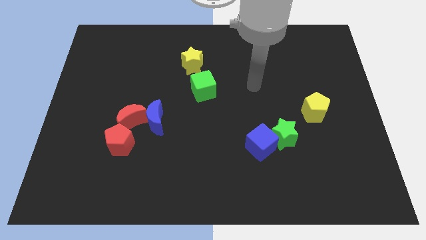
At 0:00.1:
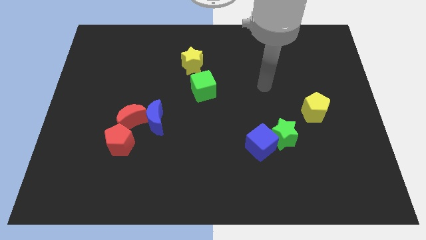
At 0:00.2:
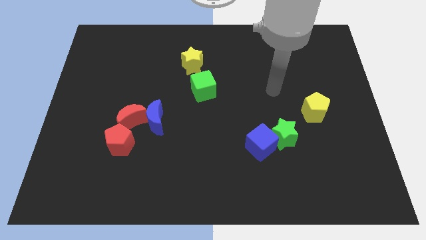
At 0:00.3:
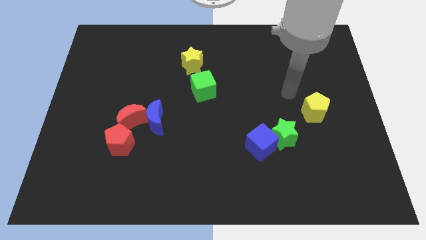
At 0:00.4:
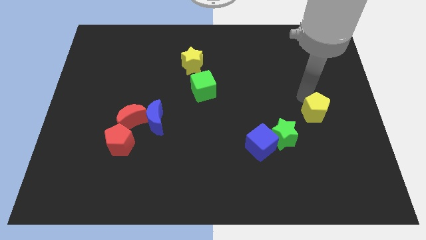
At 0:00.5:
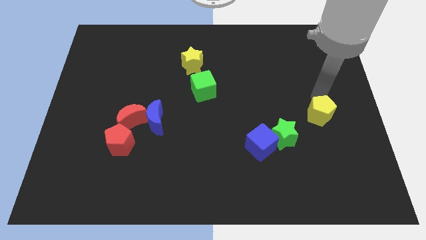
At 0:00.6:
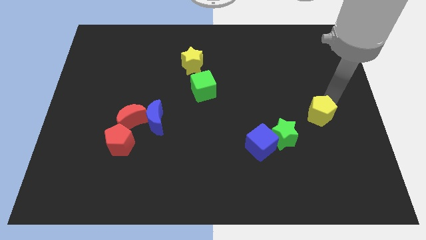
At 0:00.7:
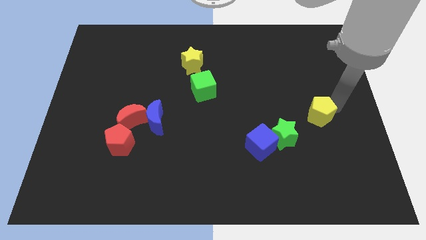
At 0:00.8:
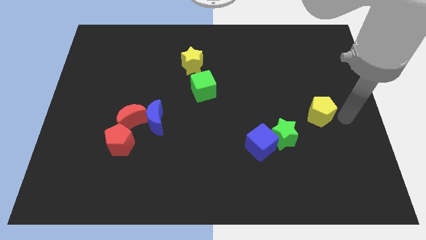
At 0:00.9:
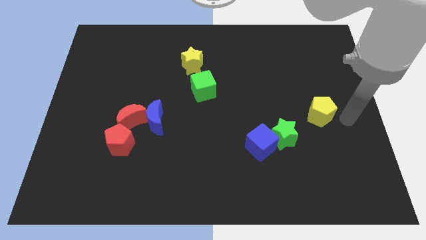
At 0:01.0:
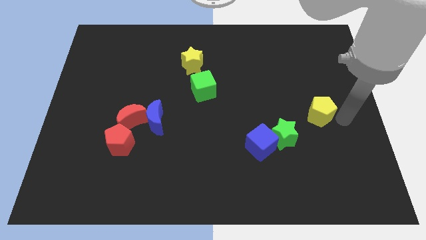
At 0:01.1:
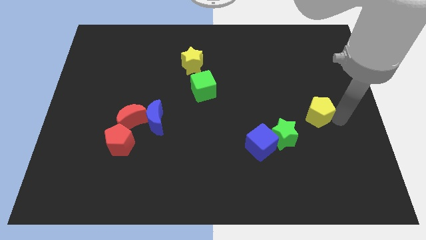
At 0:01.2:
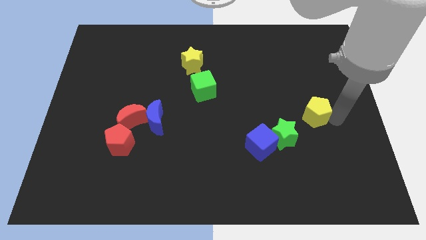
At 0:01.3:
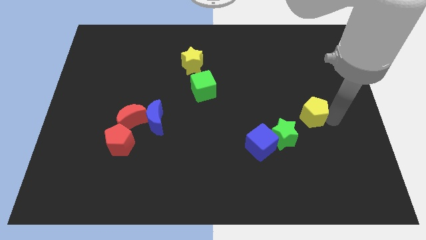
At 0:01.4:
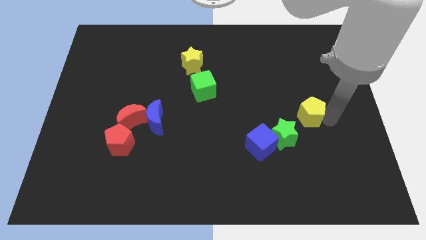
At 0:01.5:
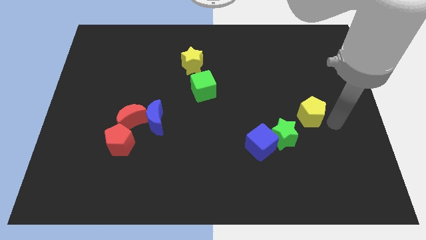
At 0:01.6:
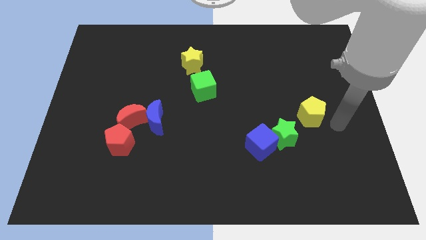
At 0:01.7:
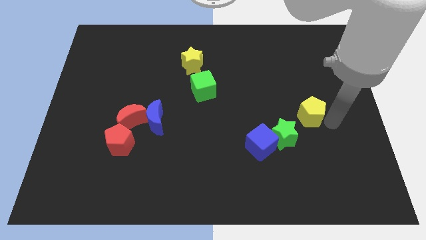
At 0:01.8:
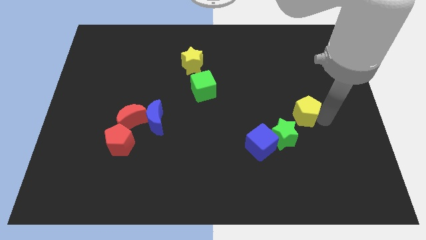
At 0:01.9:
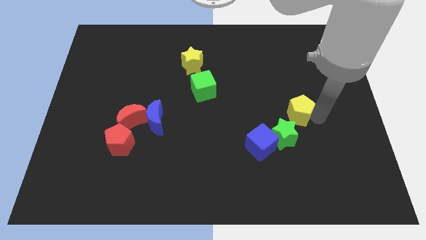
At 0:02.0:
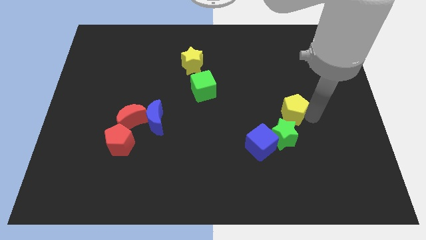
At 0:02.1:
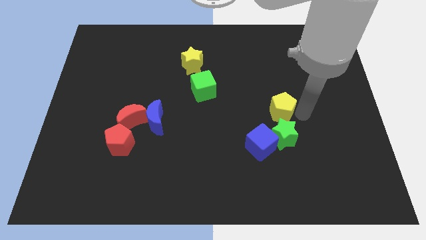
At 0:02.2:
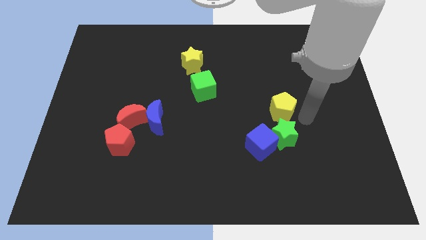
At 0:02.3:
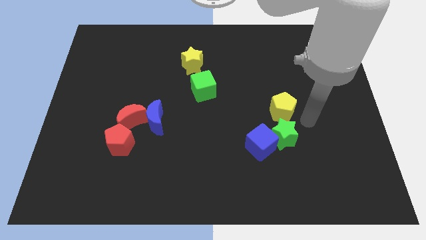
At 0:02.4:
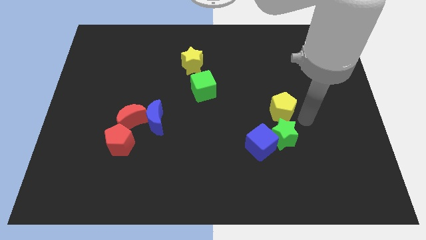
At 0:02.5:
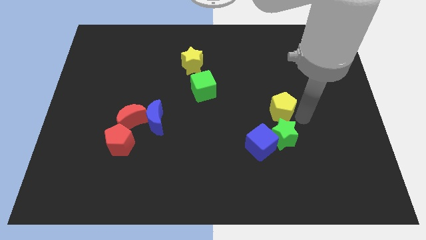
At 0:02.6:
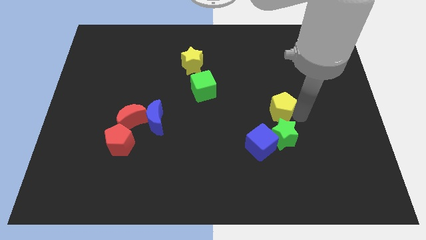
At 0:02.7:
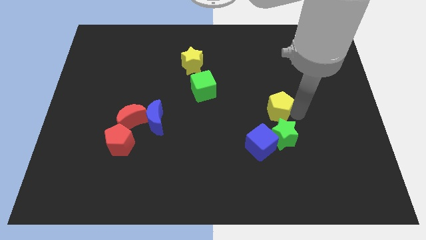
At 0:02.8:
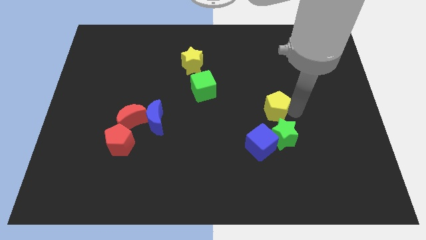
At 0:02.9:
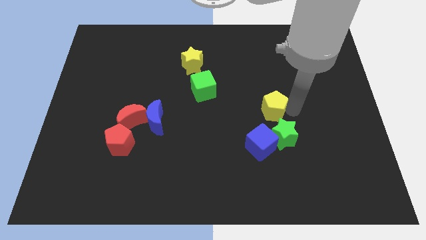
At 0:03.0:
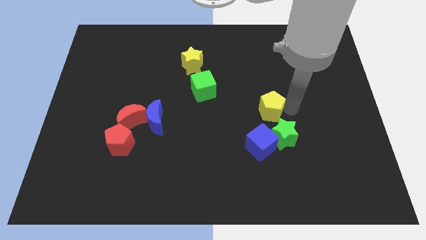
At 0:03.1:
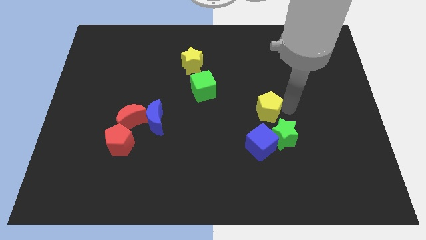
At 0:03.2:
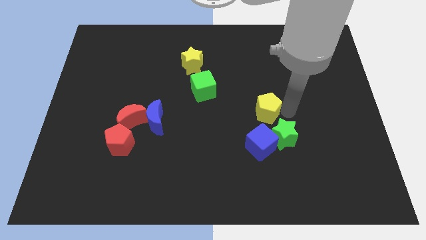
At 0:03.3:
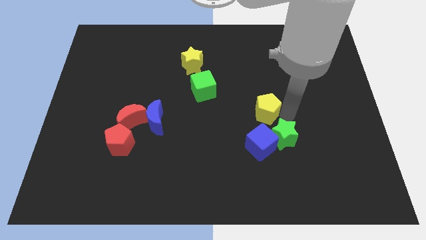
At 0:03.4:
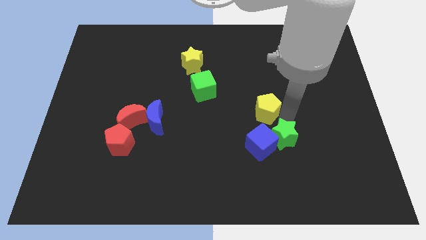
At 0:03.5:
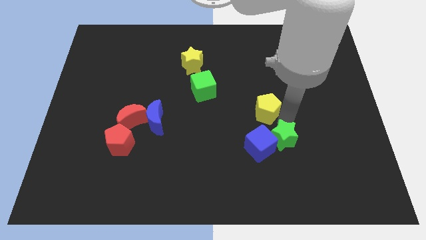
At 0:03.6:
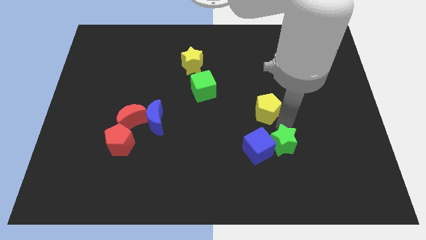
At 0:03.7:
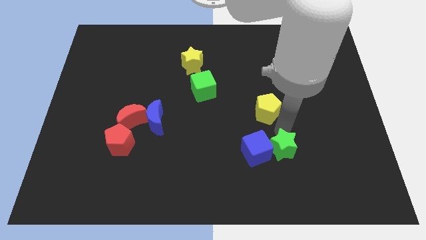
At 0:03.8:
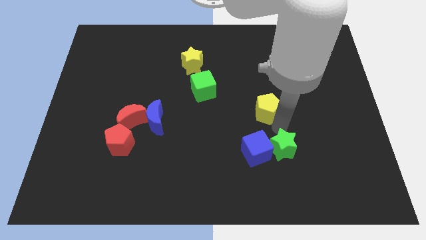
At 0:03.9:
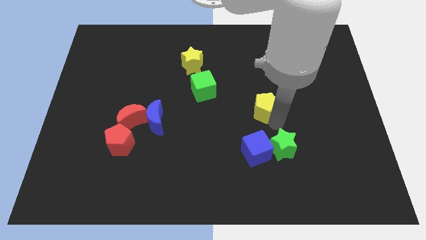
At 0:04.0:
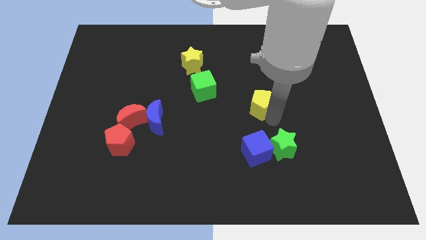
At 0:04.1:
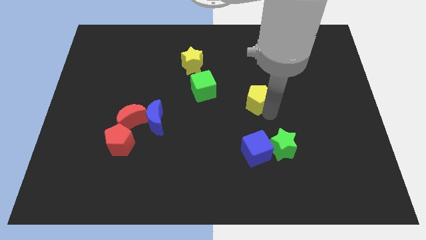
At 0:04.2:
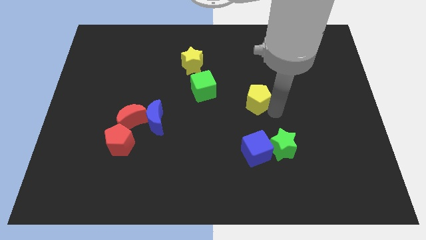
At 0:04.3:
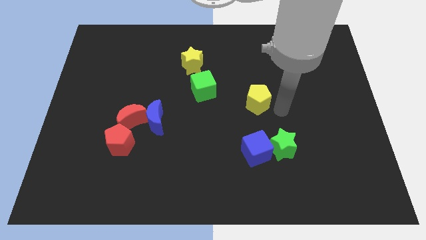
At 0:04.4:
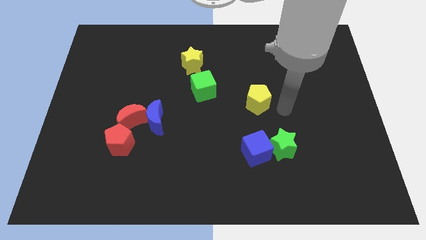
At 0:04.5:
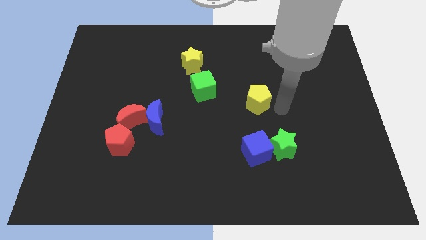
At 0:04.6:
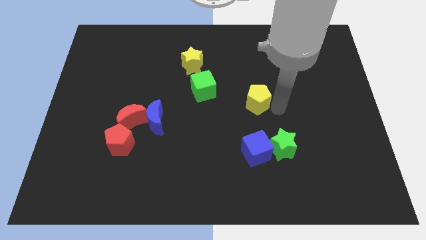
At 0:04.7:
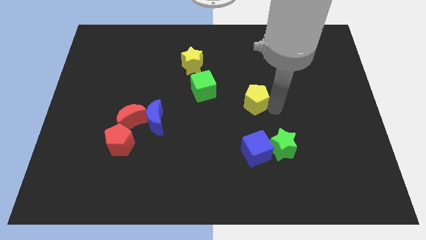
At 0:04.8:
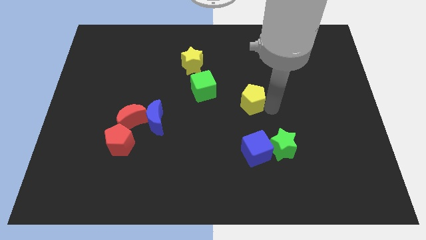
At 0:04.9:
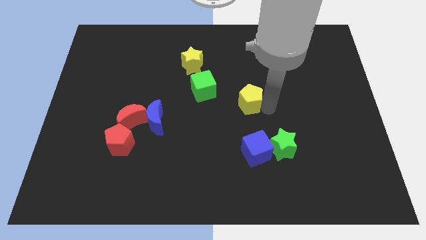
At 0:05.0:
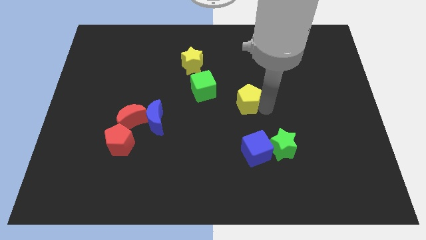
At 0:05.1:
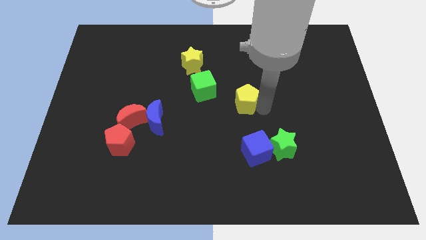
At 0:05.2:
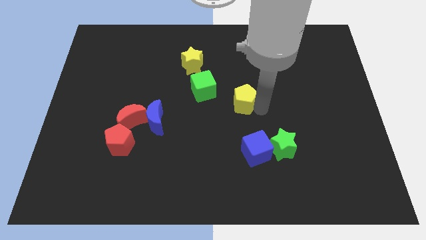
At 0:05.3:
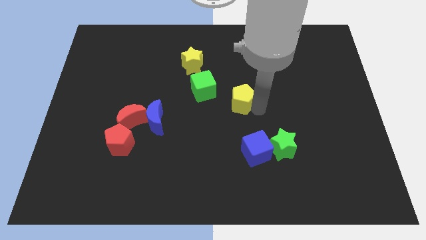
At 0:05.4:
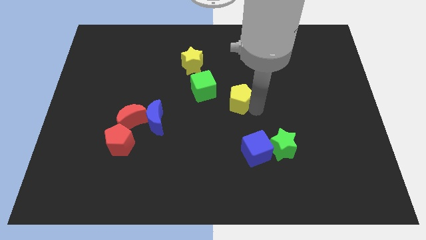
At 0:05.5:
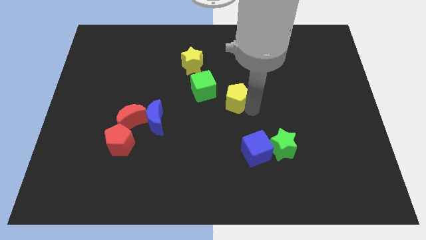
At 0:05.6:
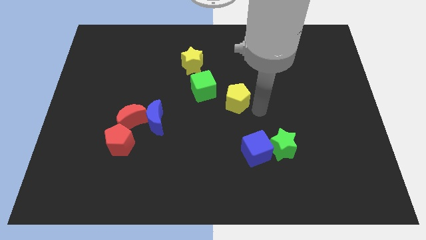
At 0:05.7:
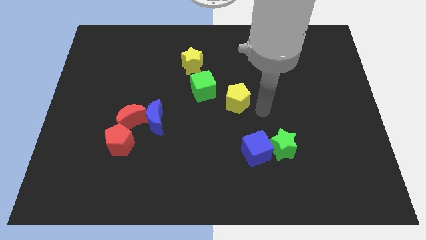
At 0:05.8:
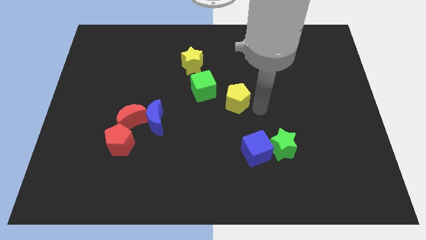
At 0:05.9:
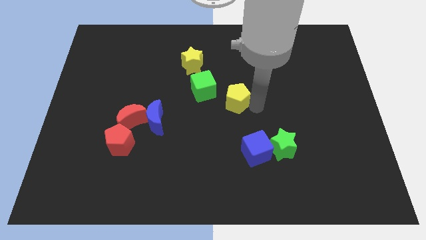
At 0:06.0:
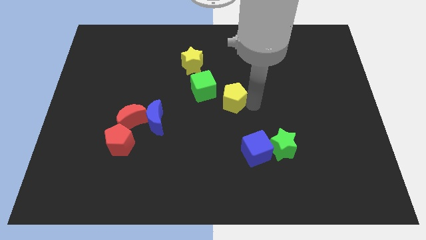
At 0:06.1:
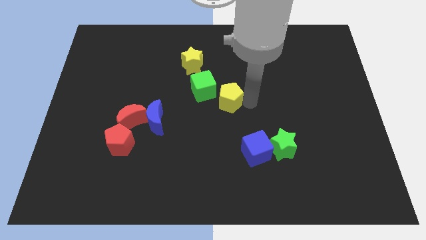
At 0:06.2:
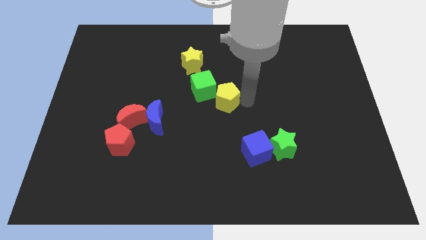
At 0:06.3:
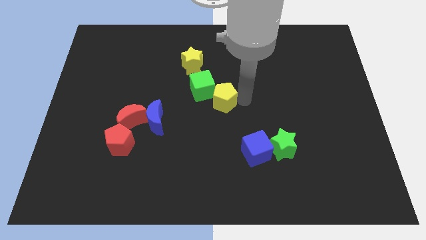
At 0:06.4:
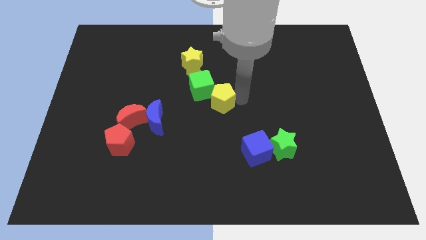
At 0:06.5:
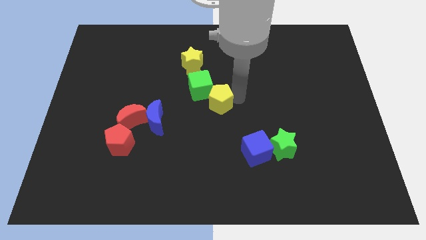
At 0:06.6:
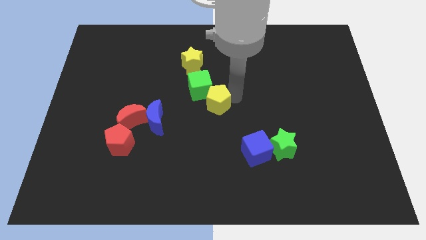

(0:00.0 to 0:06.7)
push the yellow pentagon next to the green cube
